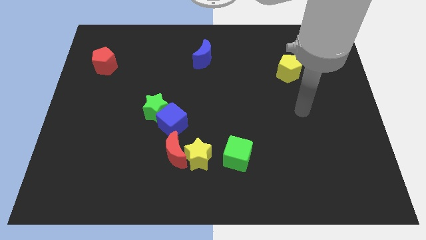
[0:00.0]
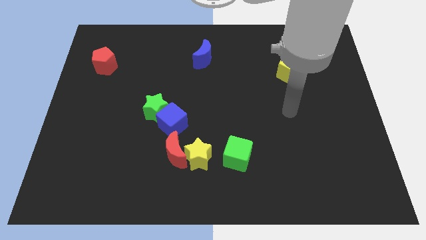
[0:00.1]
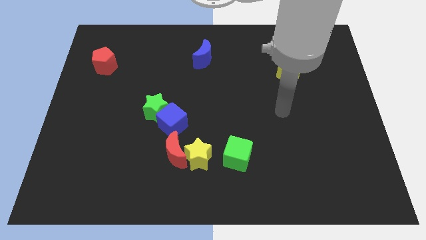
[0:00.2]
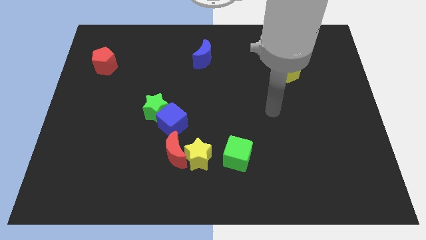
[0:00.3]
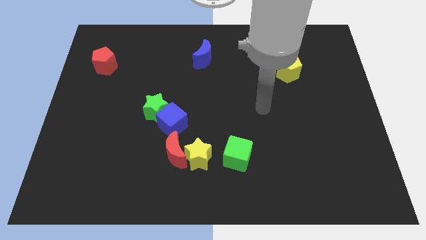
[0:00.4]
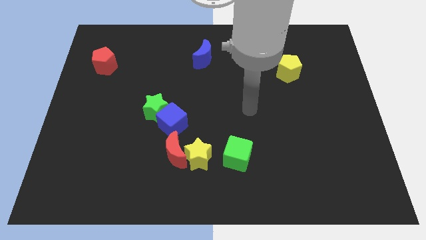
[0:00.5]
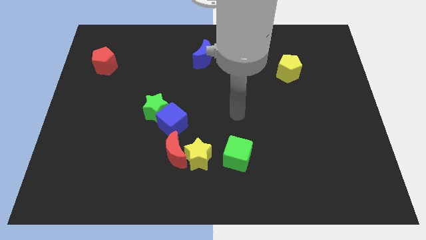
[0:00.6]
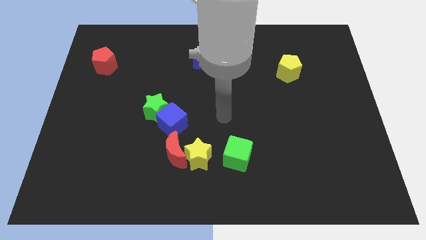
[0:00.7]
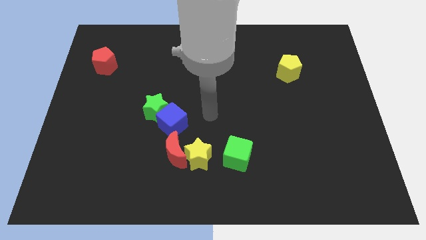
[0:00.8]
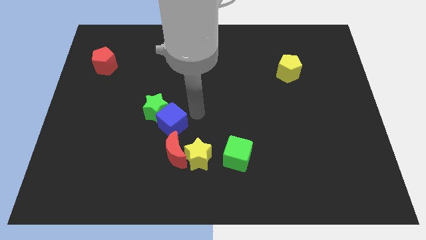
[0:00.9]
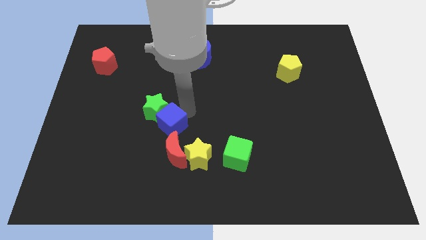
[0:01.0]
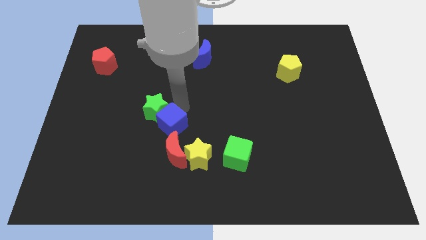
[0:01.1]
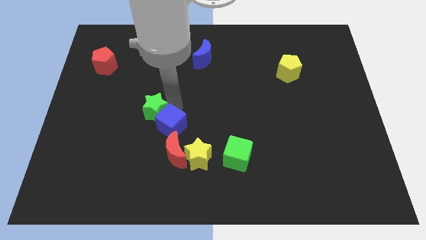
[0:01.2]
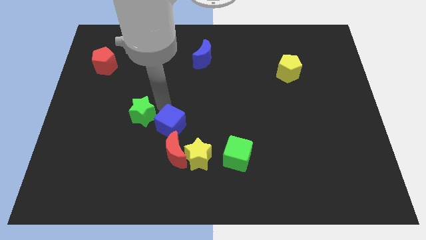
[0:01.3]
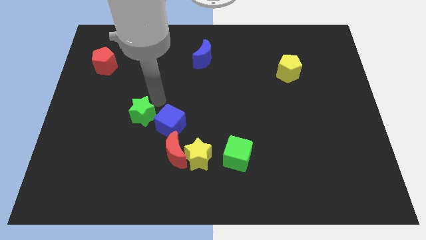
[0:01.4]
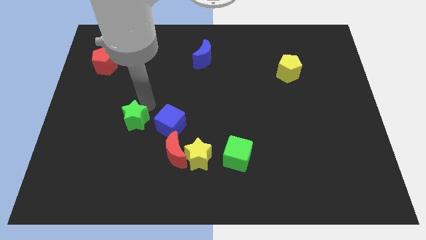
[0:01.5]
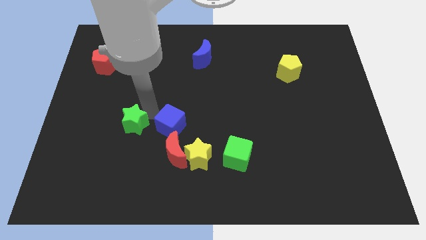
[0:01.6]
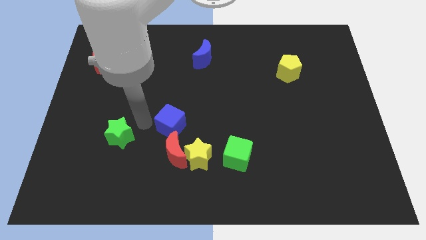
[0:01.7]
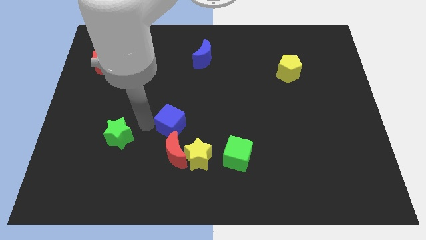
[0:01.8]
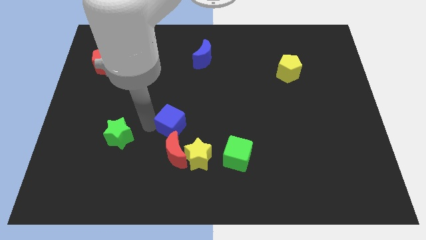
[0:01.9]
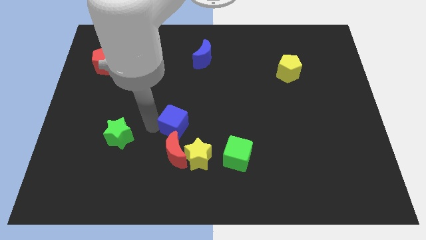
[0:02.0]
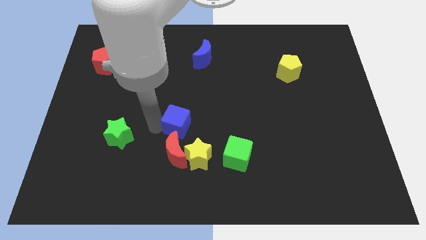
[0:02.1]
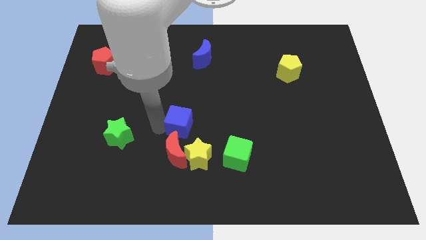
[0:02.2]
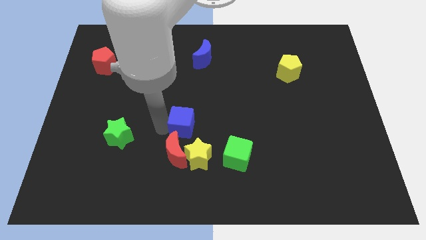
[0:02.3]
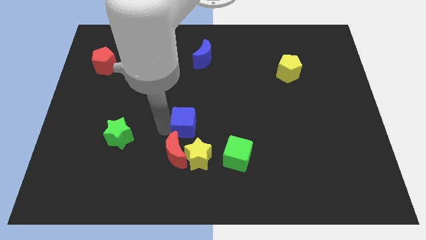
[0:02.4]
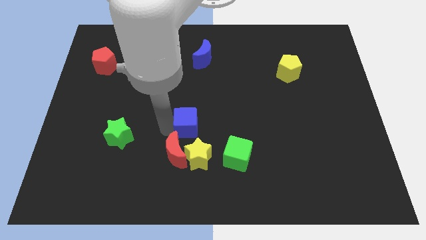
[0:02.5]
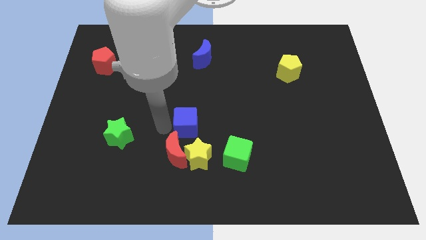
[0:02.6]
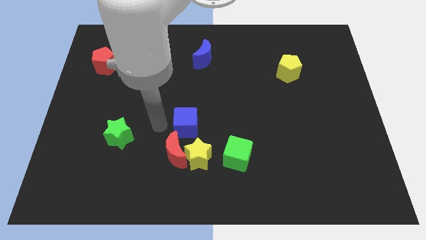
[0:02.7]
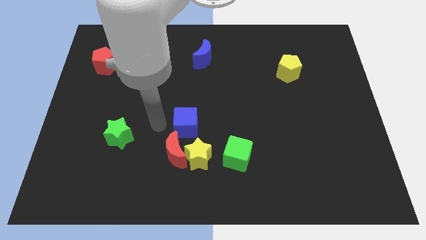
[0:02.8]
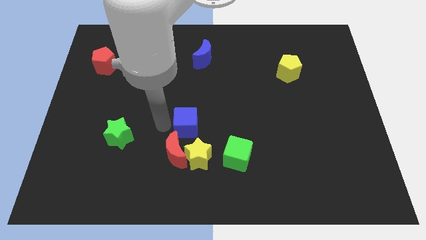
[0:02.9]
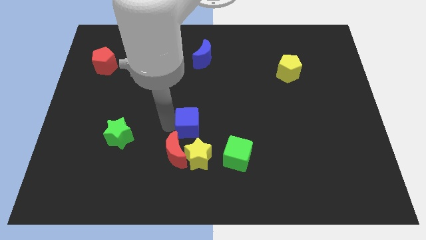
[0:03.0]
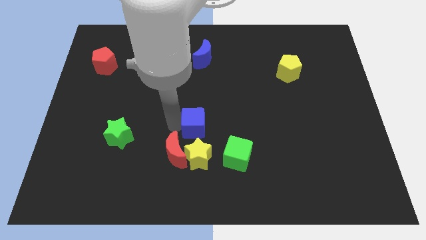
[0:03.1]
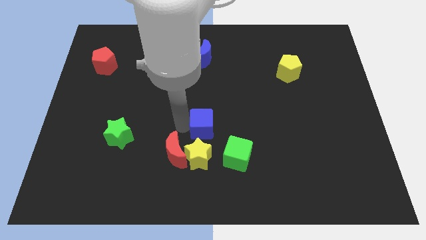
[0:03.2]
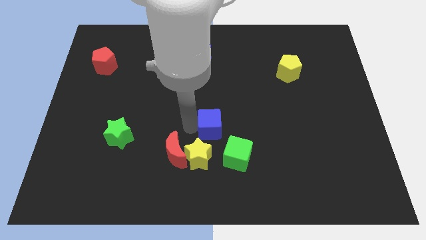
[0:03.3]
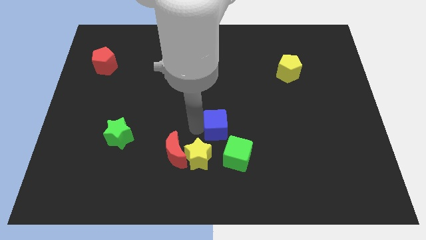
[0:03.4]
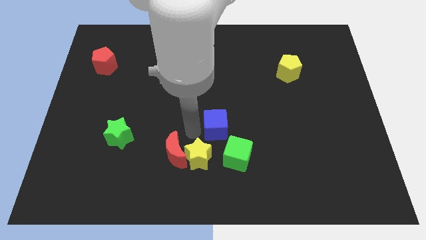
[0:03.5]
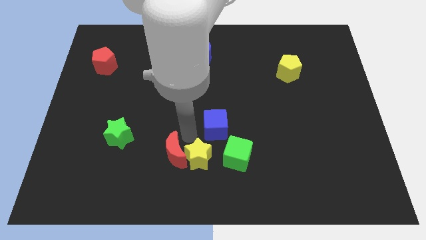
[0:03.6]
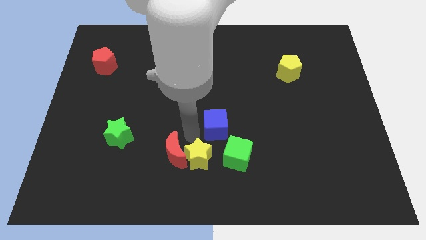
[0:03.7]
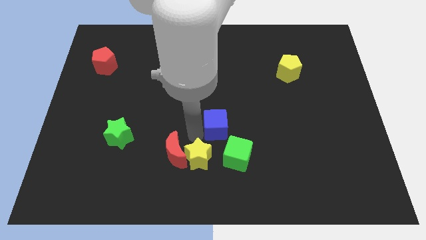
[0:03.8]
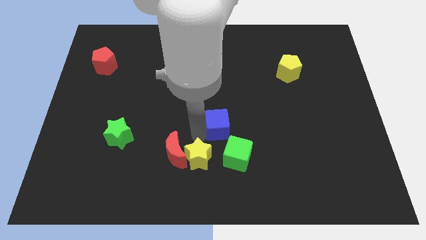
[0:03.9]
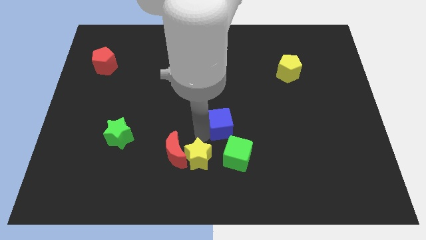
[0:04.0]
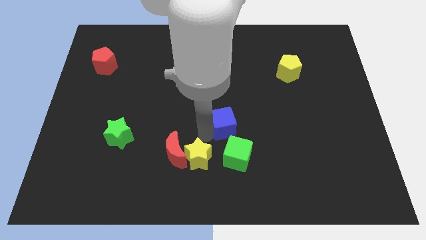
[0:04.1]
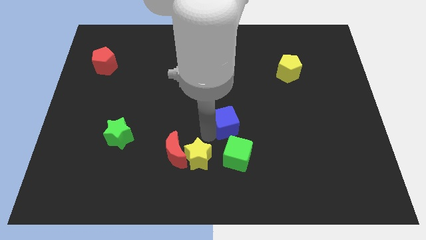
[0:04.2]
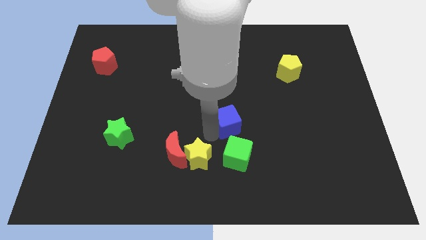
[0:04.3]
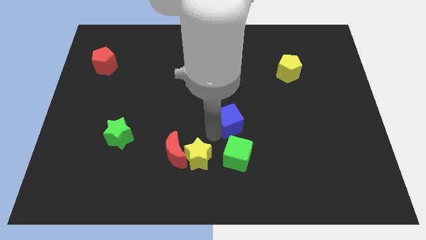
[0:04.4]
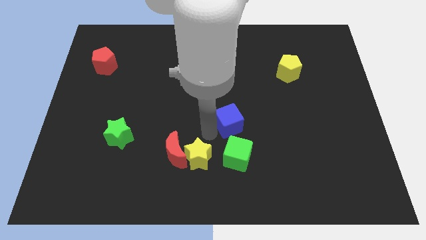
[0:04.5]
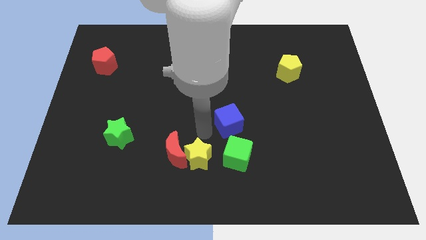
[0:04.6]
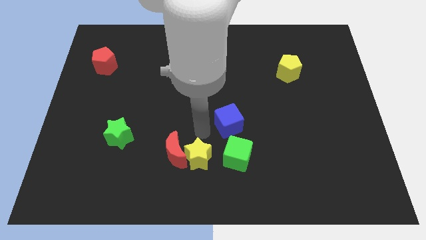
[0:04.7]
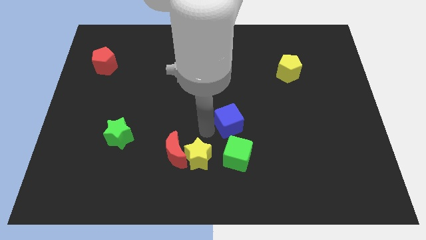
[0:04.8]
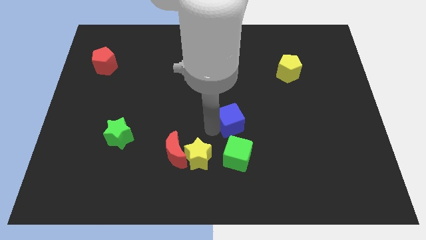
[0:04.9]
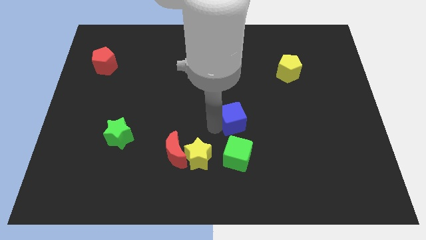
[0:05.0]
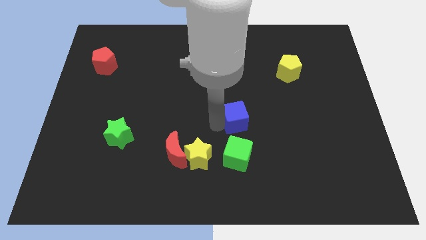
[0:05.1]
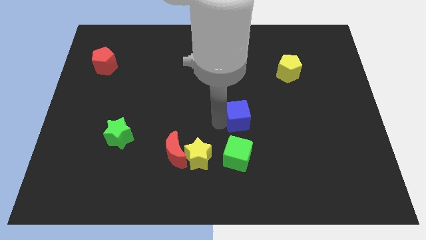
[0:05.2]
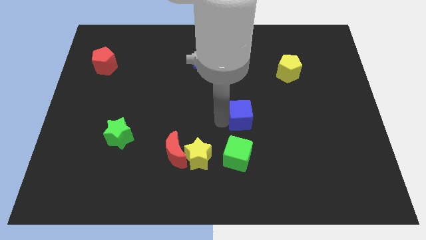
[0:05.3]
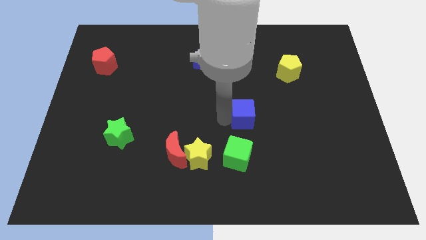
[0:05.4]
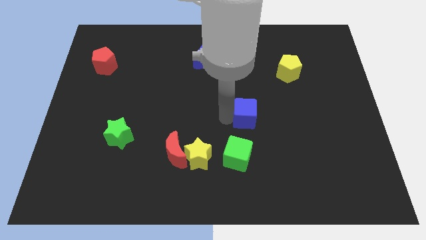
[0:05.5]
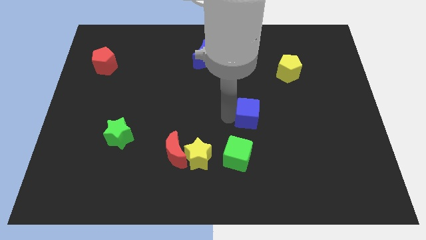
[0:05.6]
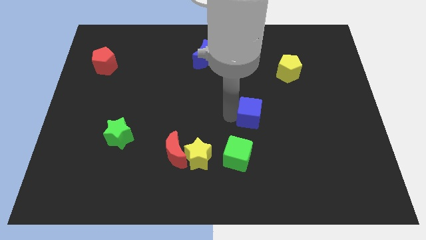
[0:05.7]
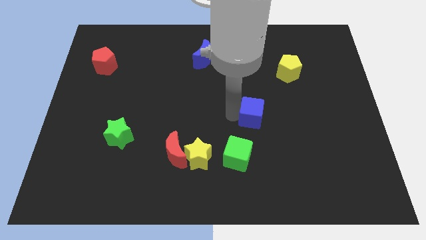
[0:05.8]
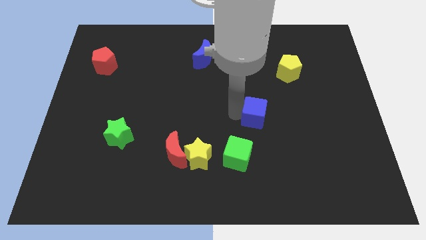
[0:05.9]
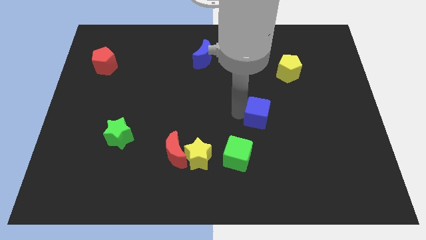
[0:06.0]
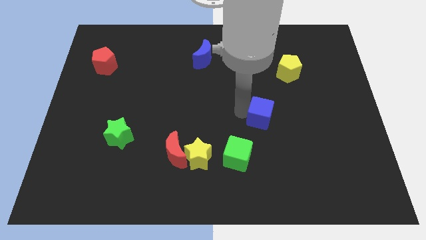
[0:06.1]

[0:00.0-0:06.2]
push the blue cube right

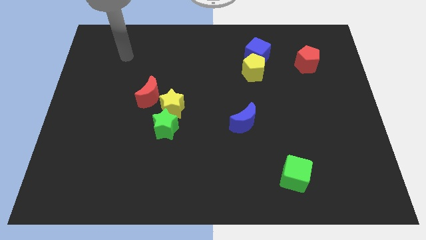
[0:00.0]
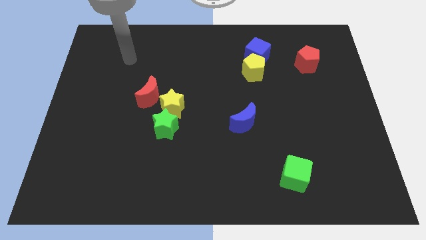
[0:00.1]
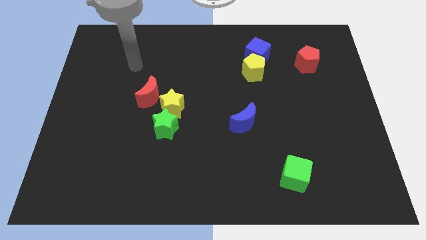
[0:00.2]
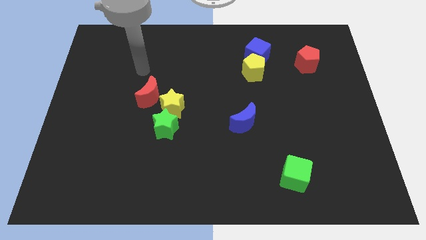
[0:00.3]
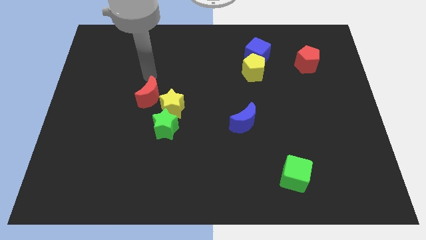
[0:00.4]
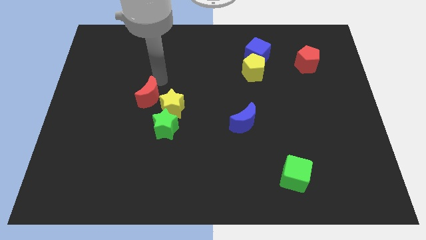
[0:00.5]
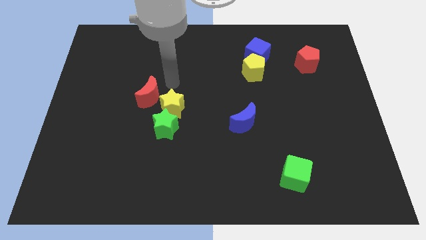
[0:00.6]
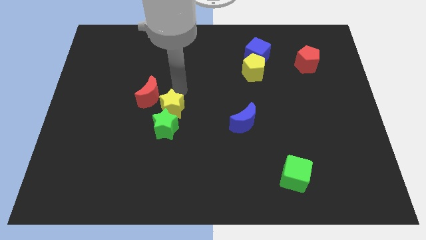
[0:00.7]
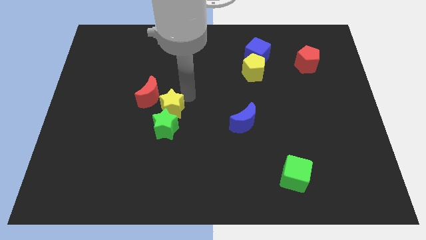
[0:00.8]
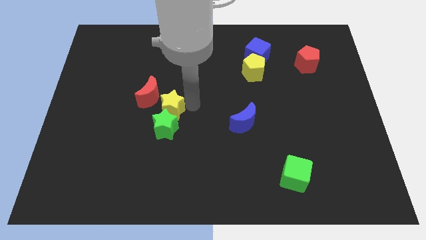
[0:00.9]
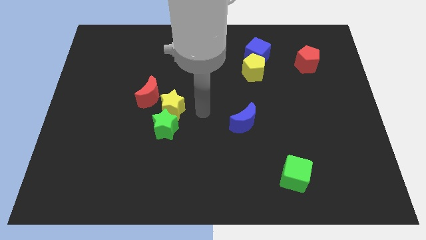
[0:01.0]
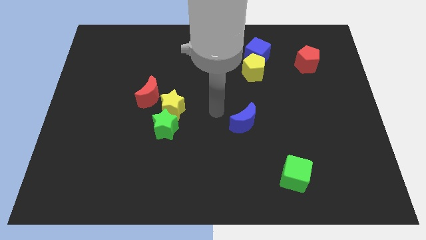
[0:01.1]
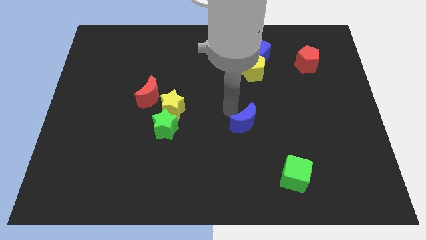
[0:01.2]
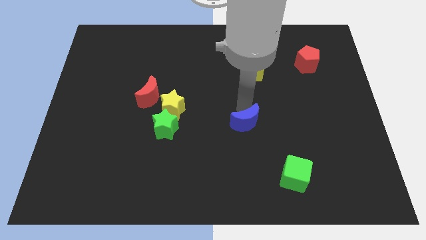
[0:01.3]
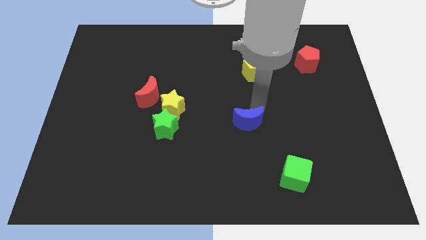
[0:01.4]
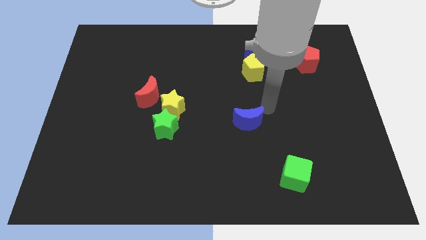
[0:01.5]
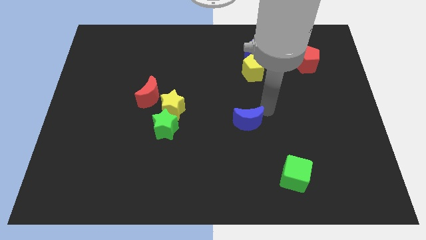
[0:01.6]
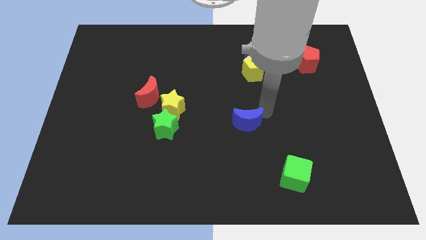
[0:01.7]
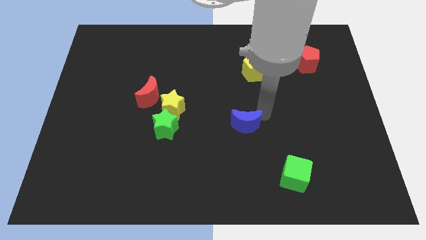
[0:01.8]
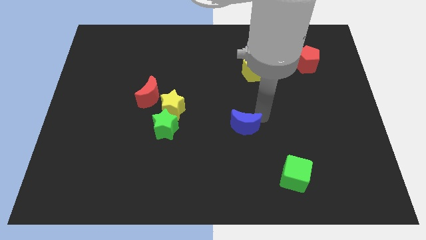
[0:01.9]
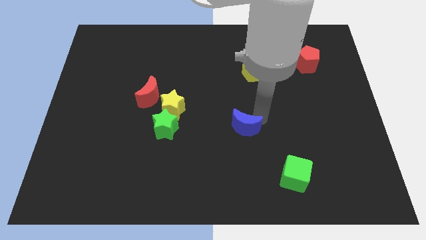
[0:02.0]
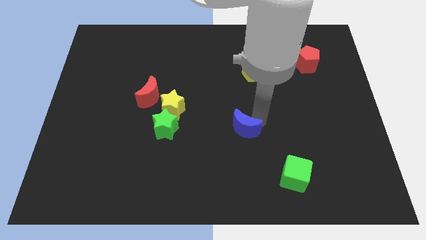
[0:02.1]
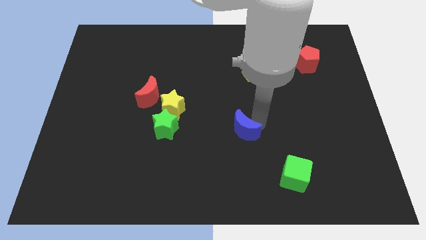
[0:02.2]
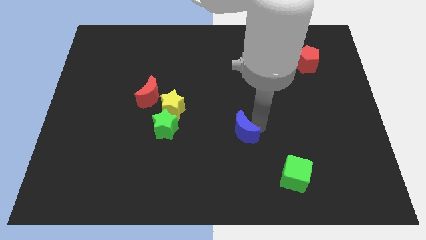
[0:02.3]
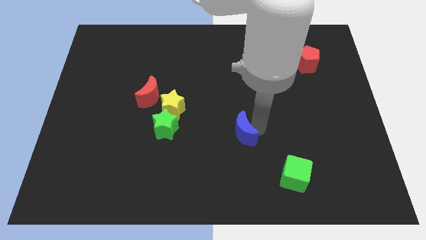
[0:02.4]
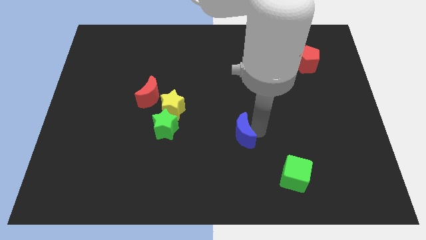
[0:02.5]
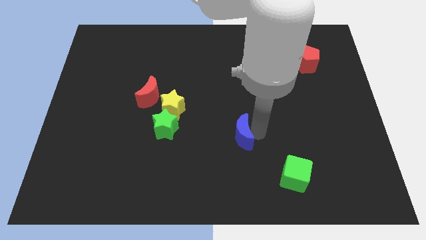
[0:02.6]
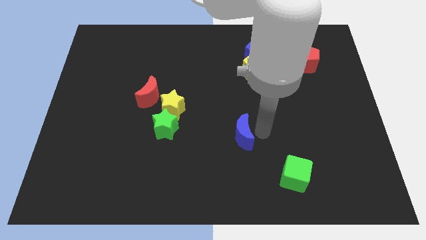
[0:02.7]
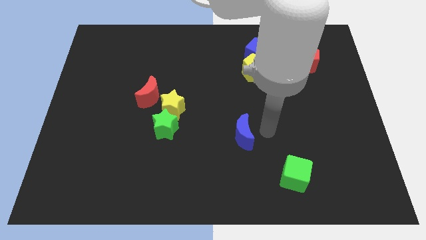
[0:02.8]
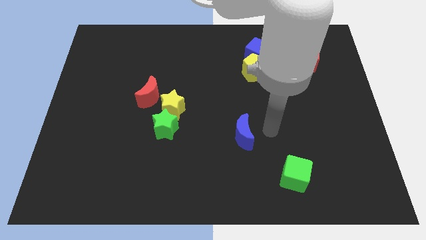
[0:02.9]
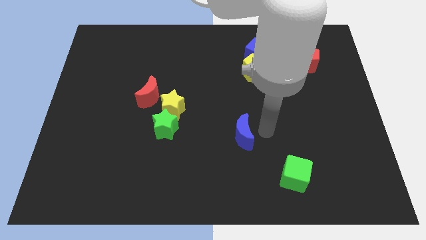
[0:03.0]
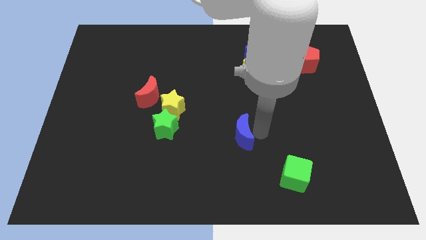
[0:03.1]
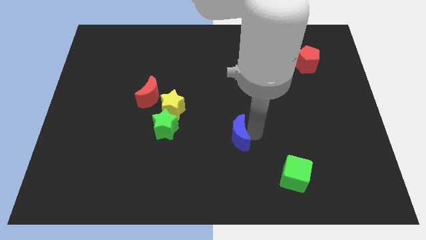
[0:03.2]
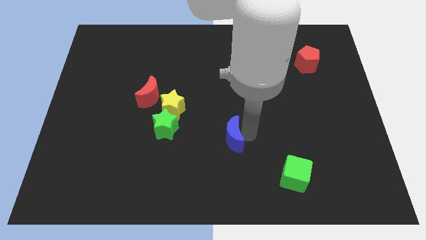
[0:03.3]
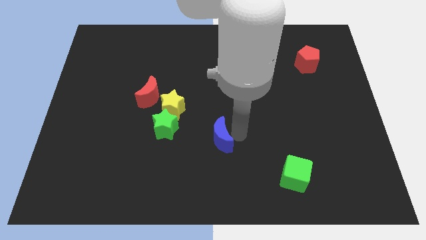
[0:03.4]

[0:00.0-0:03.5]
move the blue moon a little downwards and then to the left
